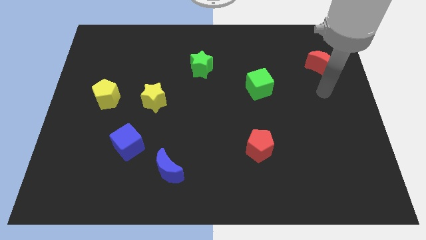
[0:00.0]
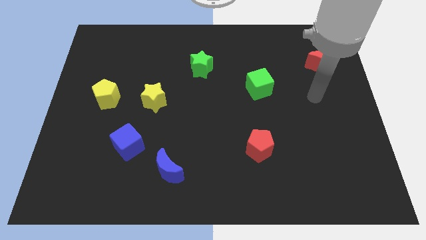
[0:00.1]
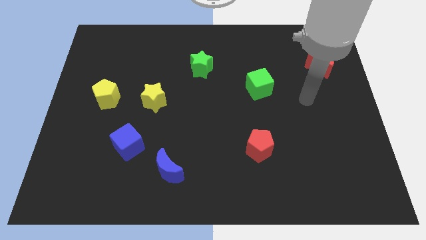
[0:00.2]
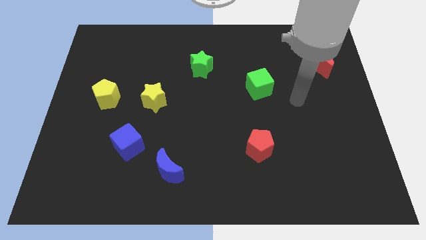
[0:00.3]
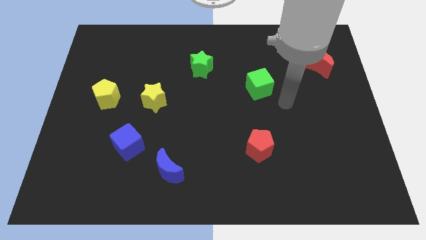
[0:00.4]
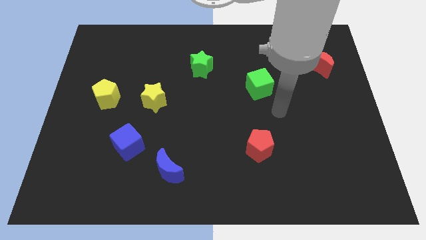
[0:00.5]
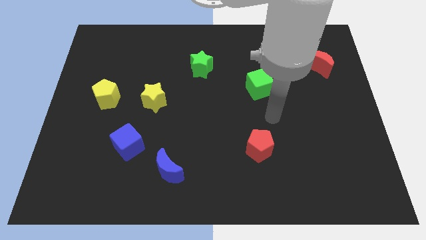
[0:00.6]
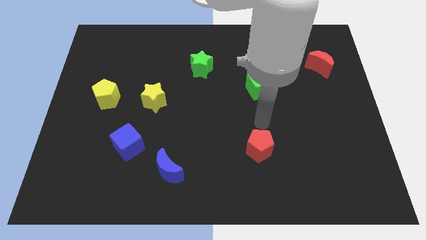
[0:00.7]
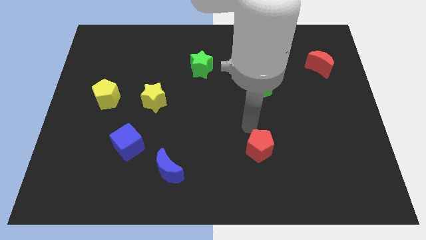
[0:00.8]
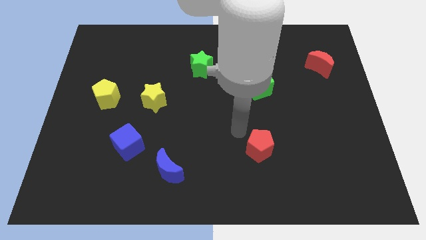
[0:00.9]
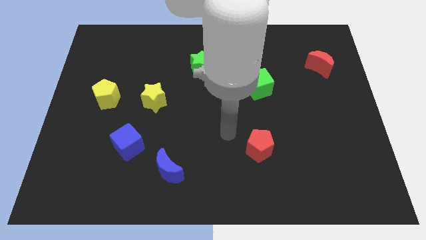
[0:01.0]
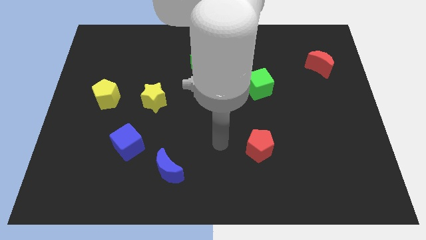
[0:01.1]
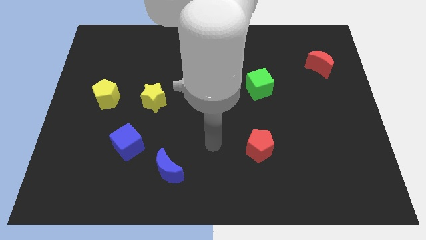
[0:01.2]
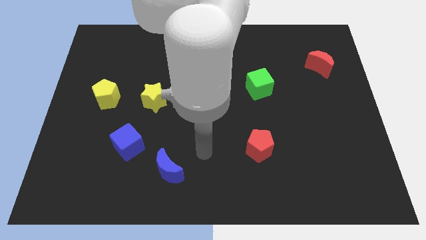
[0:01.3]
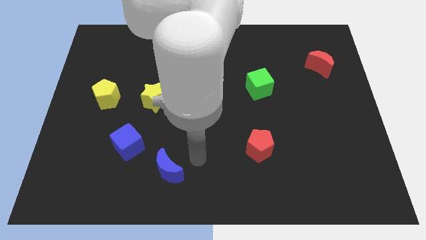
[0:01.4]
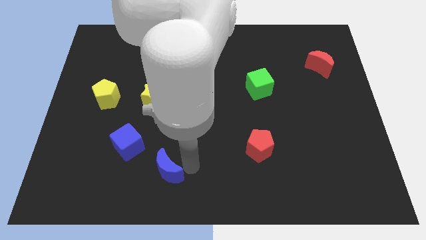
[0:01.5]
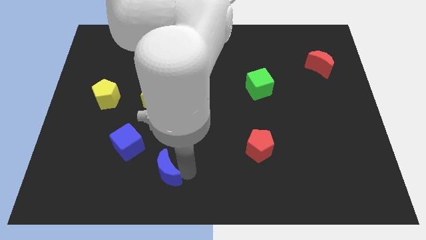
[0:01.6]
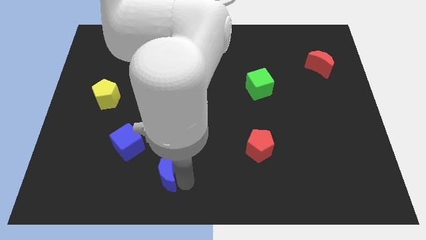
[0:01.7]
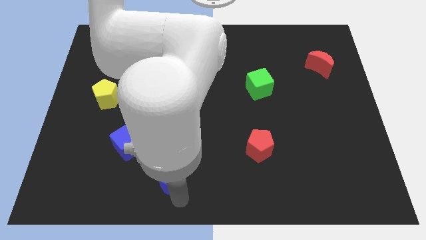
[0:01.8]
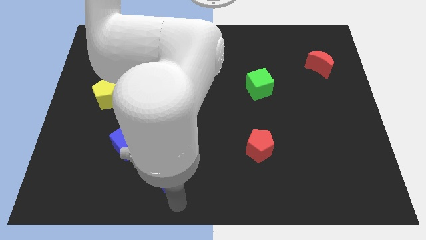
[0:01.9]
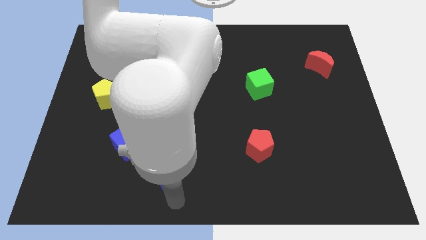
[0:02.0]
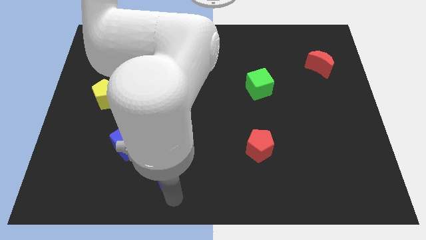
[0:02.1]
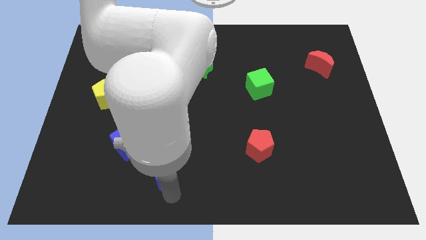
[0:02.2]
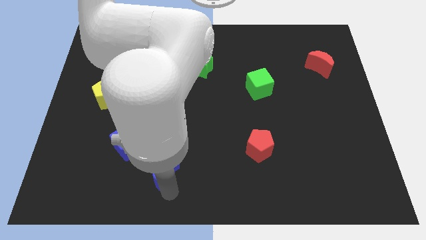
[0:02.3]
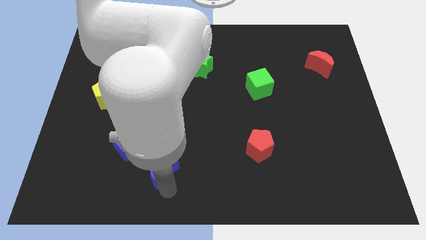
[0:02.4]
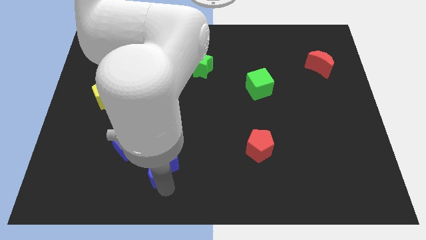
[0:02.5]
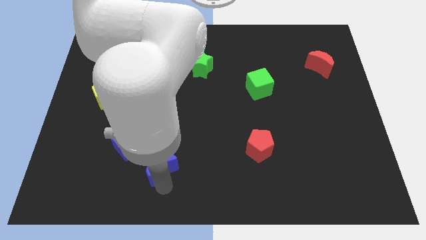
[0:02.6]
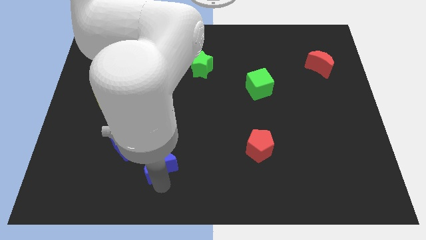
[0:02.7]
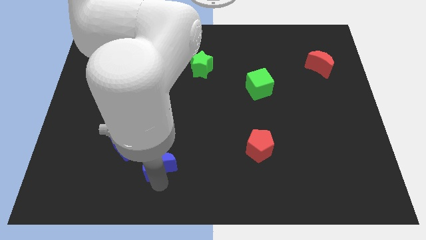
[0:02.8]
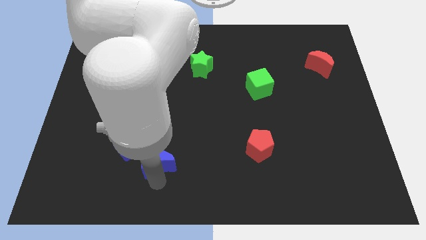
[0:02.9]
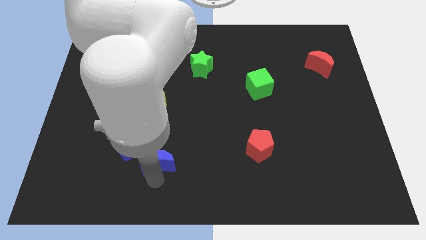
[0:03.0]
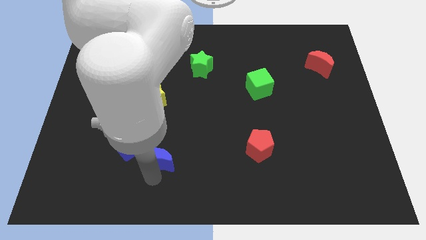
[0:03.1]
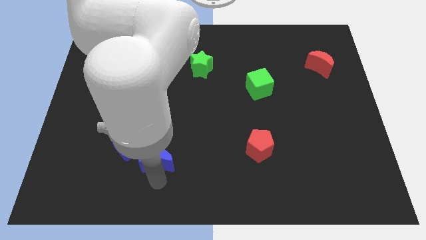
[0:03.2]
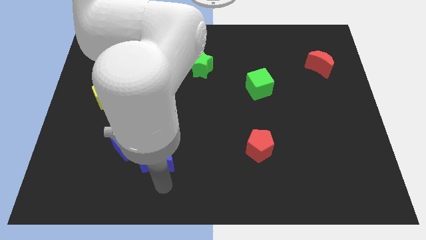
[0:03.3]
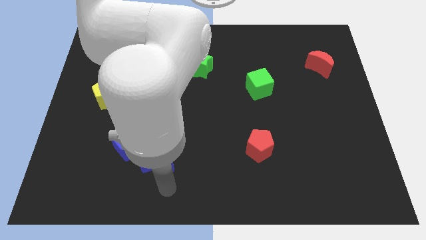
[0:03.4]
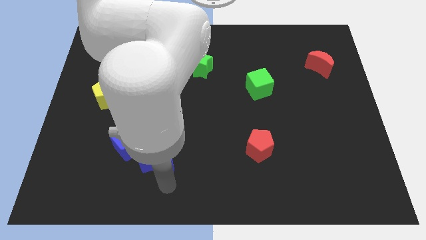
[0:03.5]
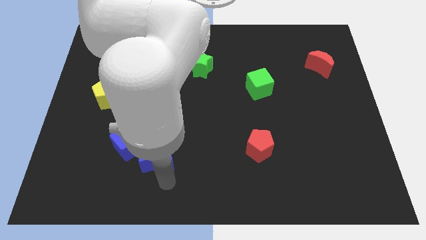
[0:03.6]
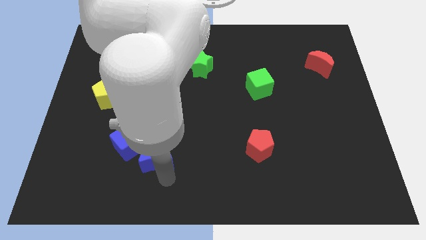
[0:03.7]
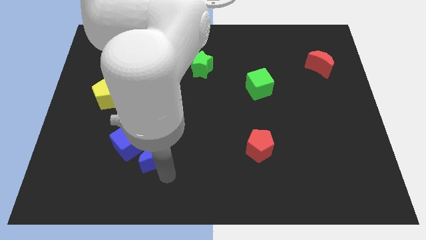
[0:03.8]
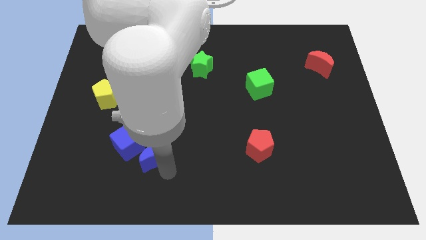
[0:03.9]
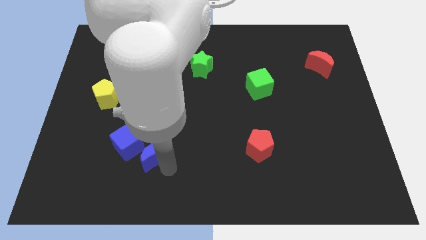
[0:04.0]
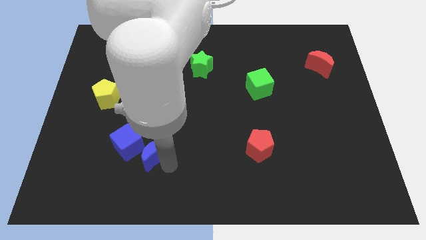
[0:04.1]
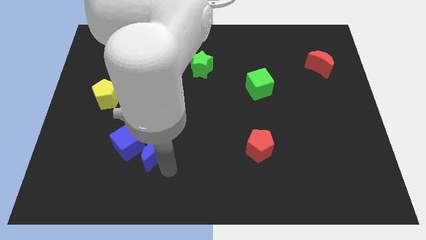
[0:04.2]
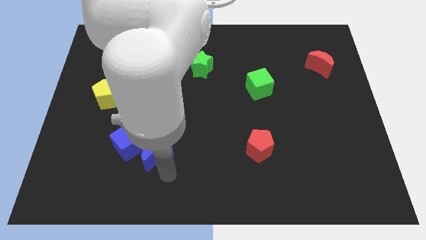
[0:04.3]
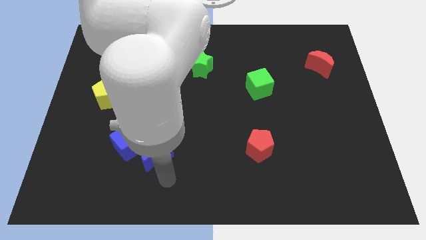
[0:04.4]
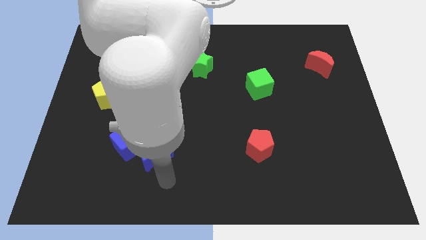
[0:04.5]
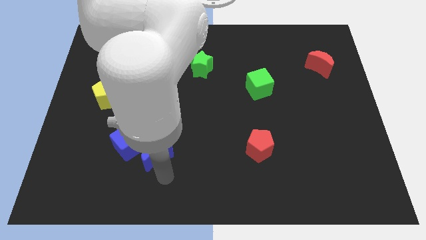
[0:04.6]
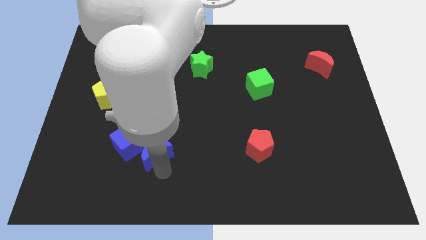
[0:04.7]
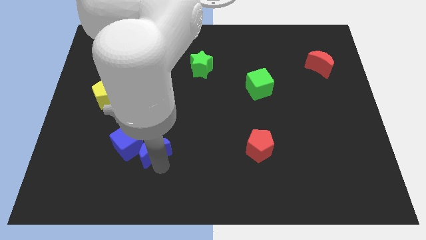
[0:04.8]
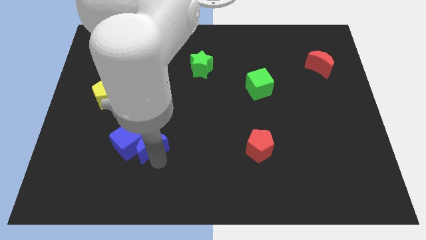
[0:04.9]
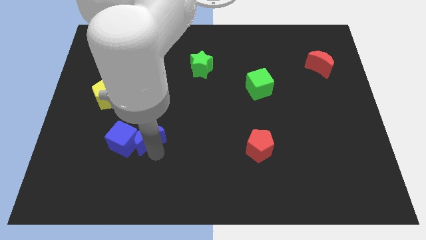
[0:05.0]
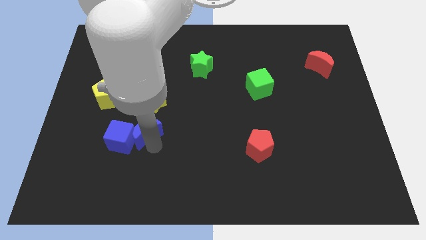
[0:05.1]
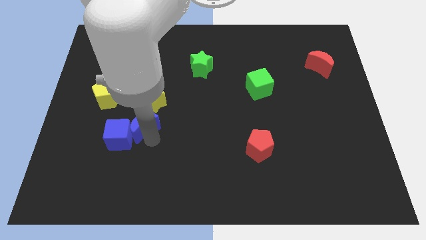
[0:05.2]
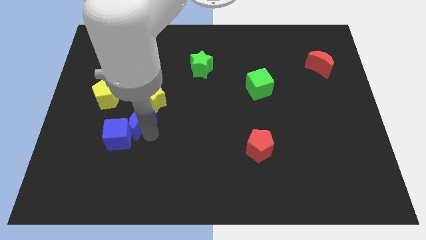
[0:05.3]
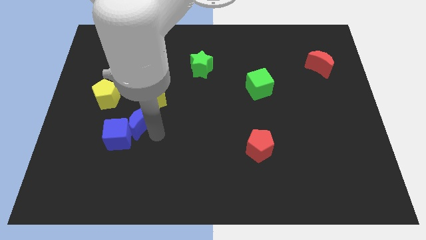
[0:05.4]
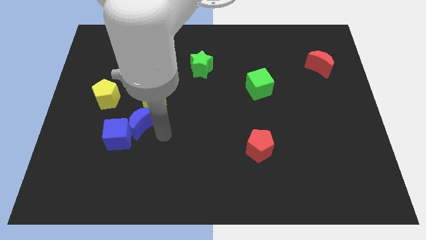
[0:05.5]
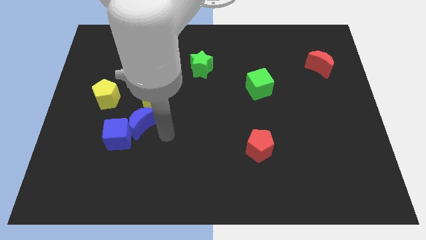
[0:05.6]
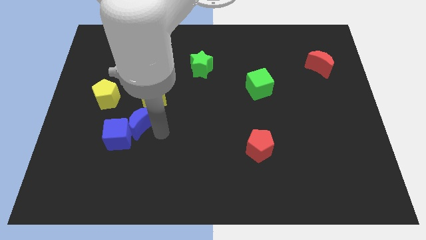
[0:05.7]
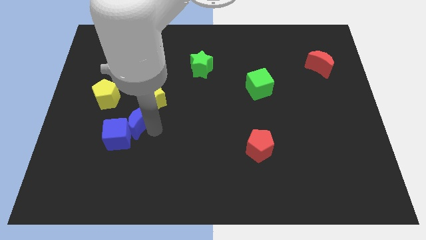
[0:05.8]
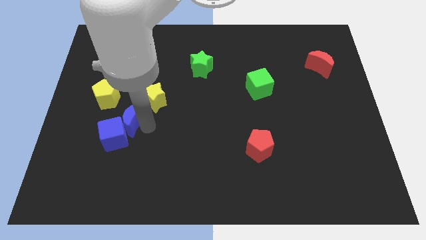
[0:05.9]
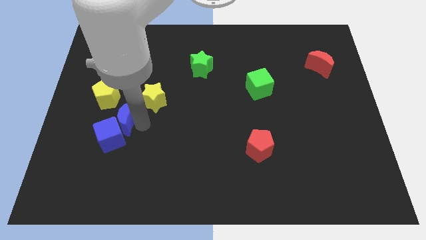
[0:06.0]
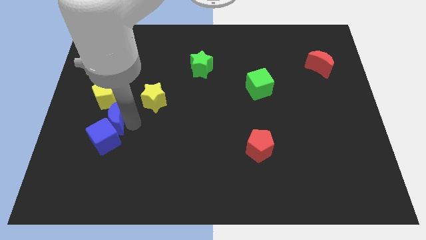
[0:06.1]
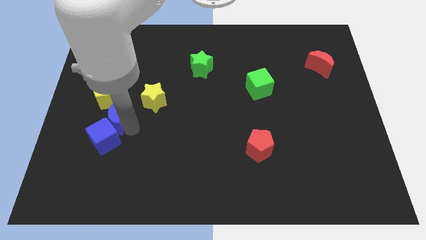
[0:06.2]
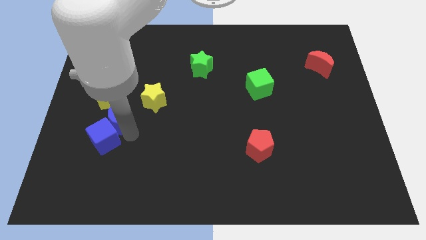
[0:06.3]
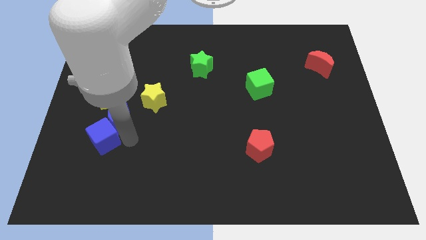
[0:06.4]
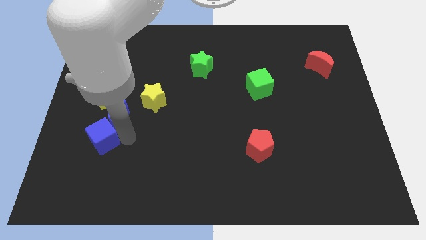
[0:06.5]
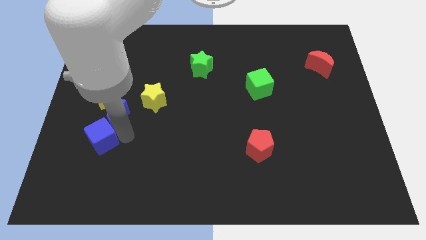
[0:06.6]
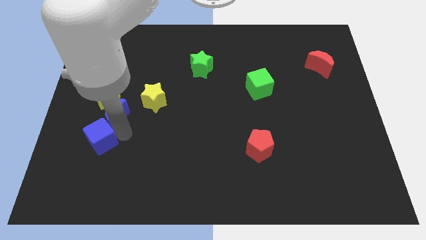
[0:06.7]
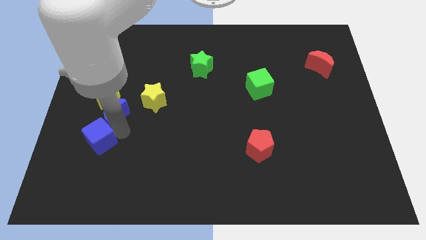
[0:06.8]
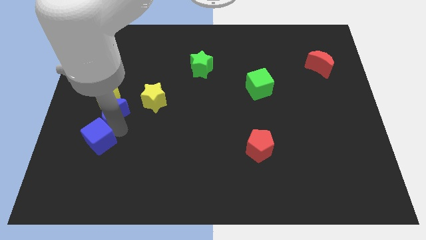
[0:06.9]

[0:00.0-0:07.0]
put the blue moon towards the yellow pentagon

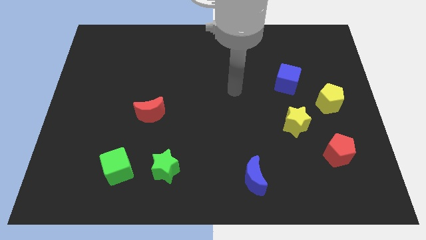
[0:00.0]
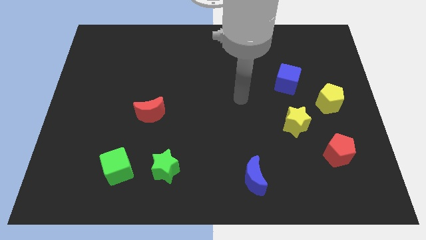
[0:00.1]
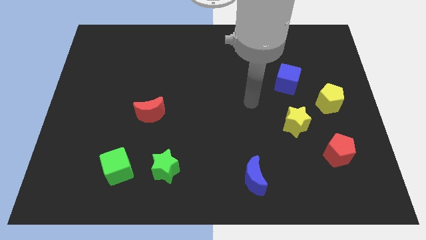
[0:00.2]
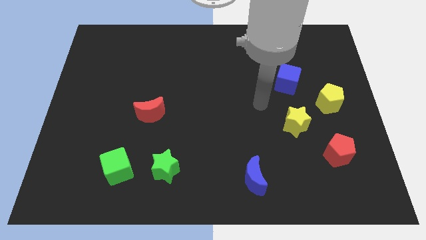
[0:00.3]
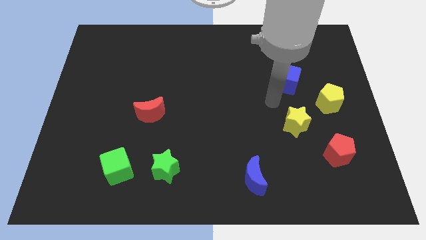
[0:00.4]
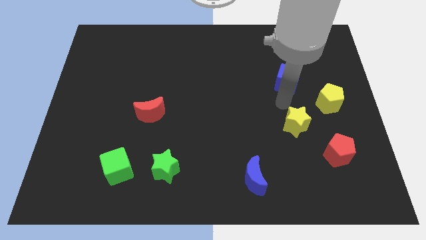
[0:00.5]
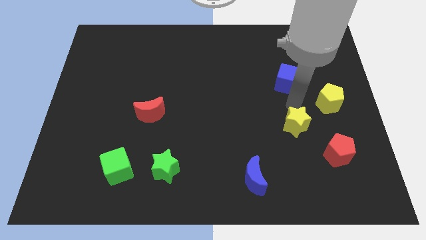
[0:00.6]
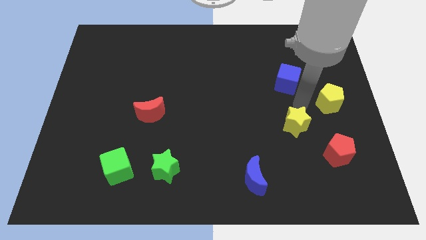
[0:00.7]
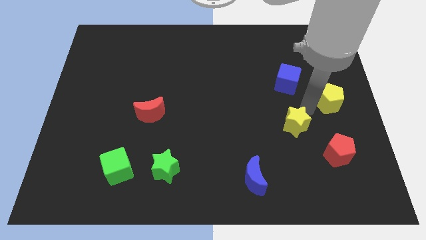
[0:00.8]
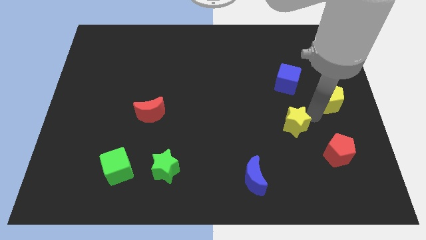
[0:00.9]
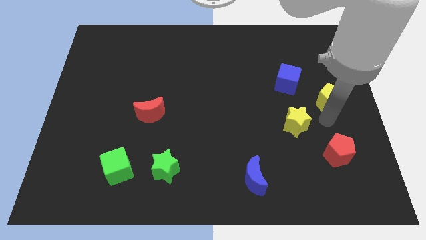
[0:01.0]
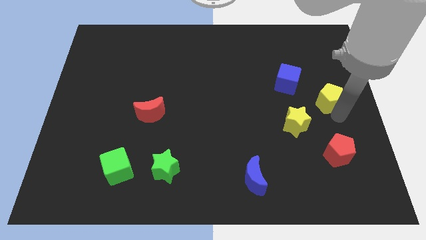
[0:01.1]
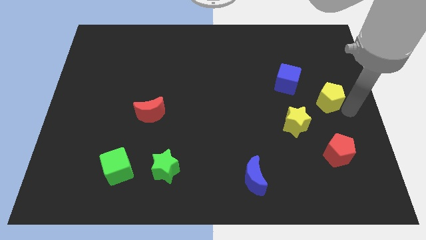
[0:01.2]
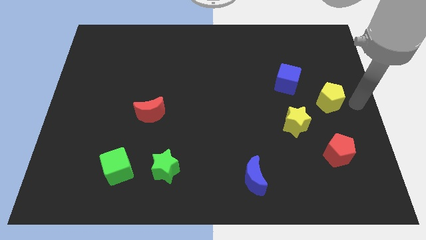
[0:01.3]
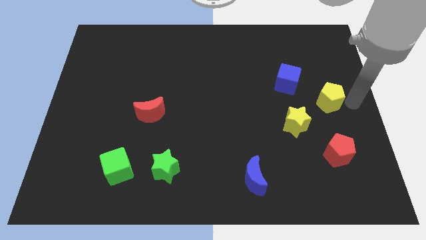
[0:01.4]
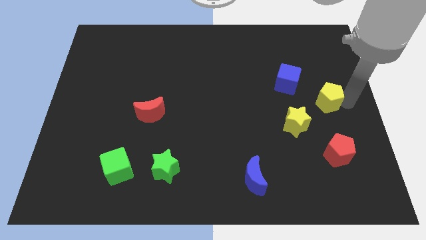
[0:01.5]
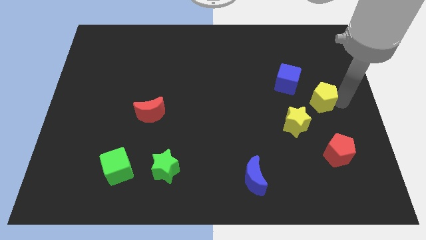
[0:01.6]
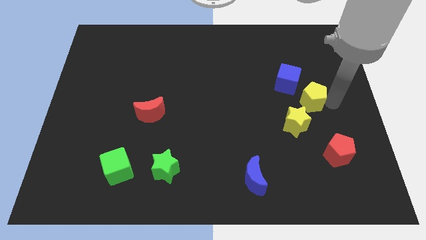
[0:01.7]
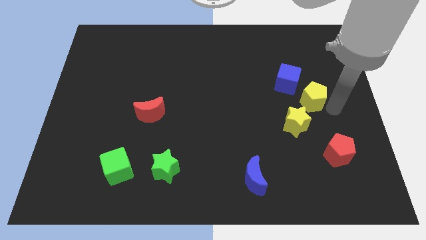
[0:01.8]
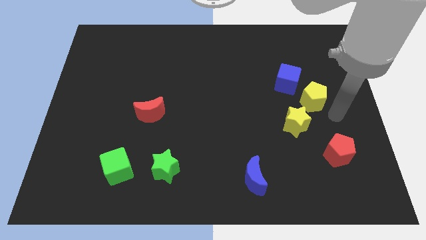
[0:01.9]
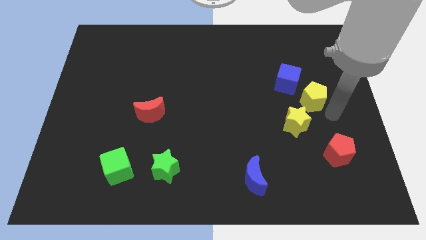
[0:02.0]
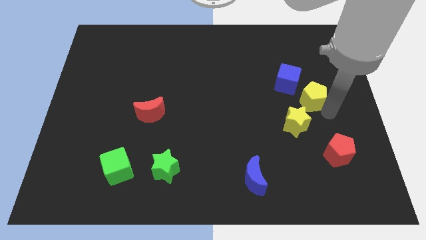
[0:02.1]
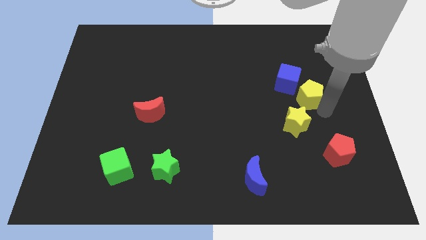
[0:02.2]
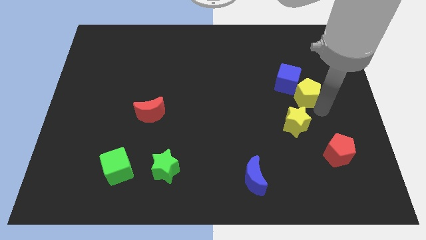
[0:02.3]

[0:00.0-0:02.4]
move the yellow pentagon next to the blue cube
